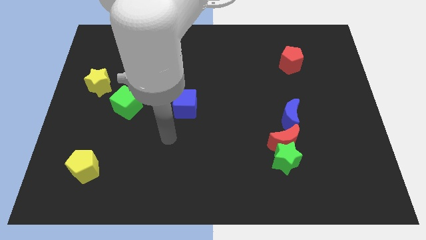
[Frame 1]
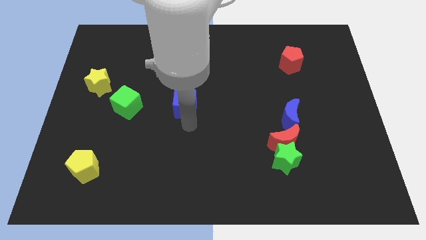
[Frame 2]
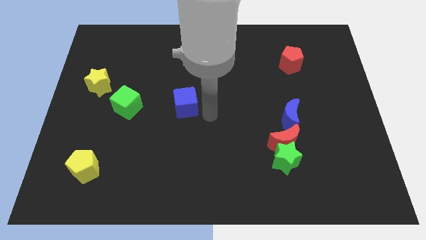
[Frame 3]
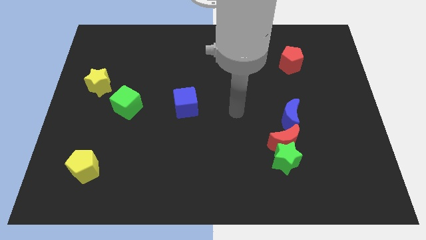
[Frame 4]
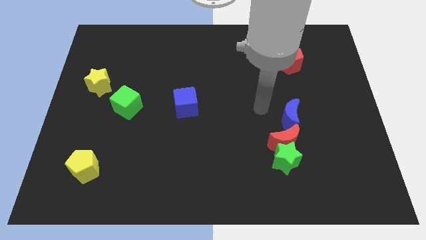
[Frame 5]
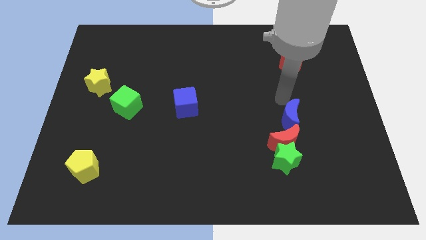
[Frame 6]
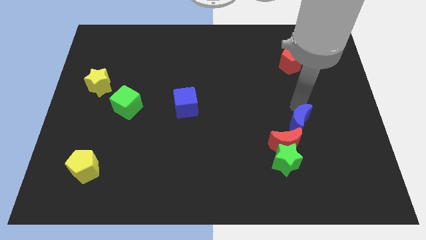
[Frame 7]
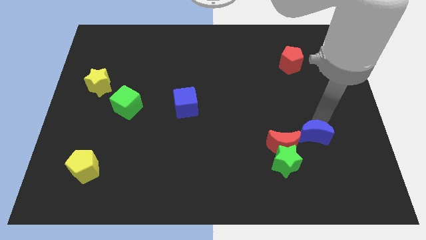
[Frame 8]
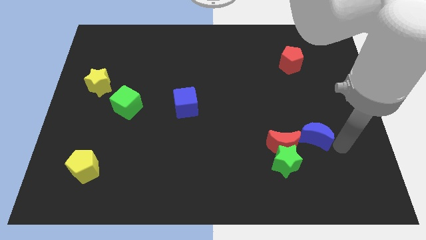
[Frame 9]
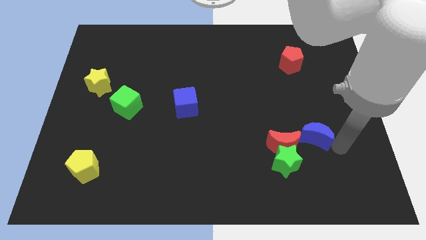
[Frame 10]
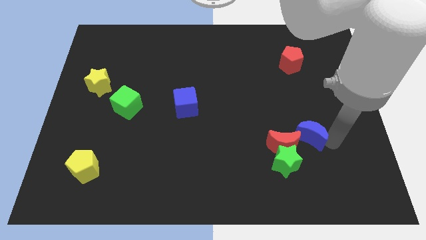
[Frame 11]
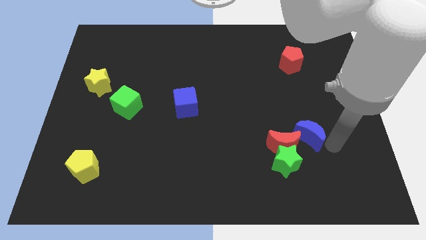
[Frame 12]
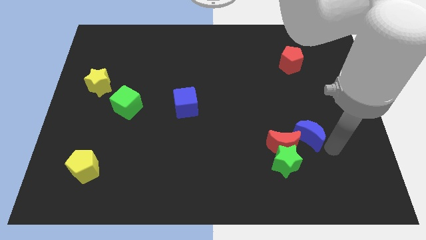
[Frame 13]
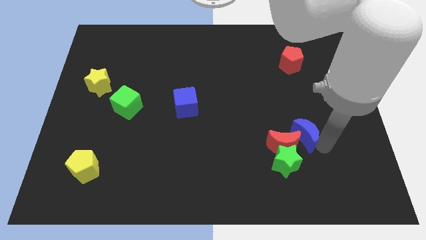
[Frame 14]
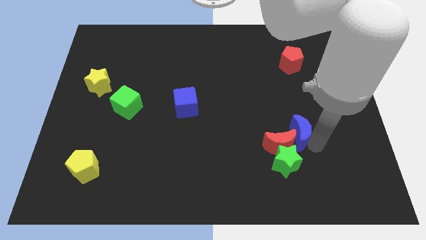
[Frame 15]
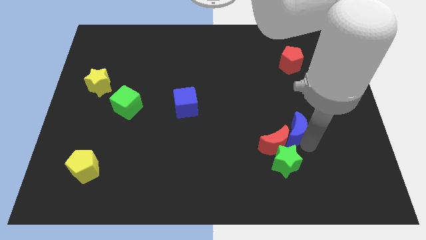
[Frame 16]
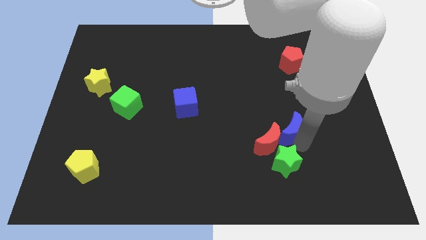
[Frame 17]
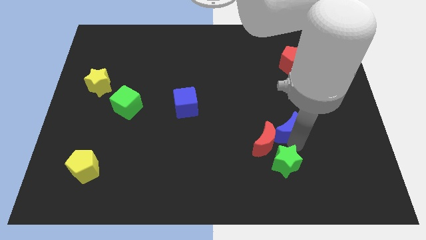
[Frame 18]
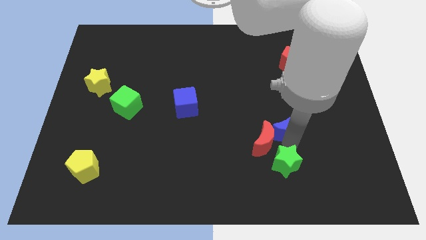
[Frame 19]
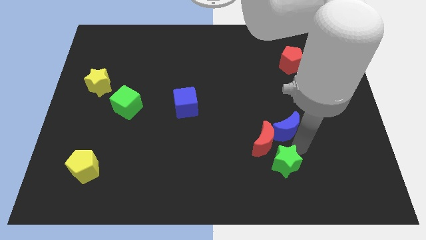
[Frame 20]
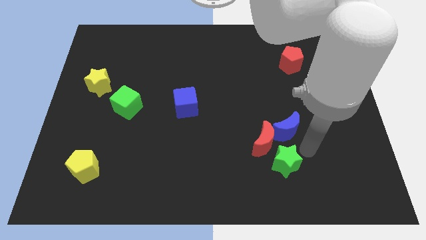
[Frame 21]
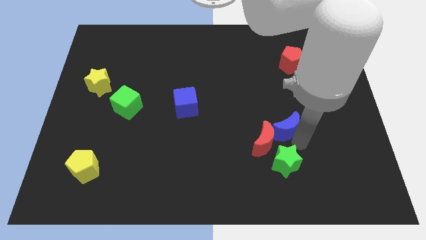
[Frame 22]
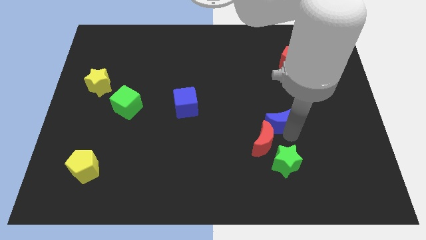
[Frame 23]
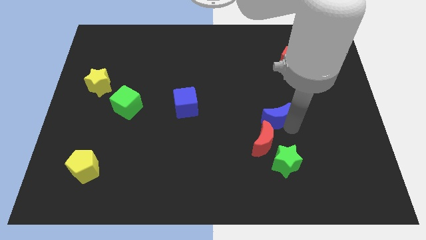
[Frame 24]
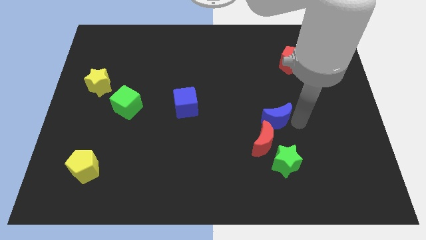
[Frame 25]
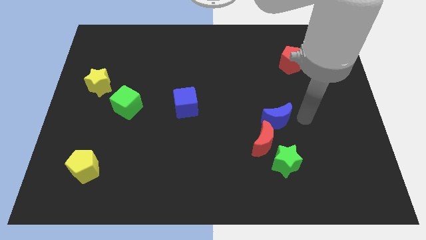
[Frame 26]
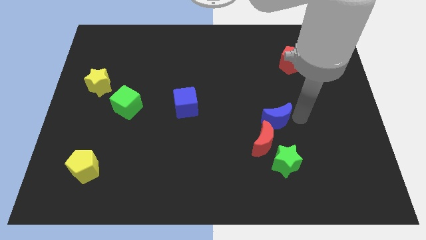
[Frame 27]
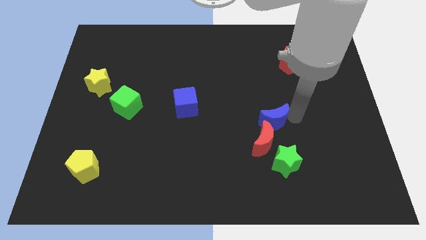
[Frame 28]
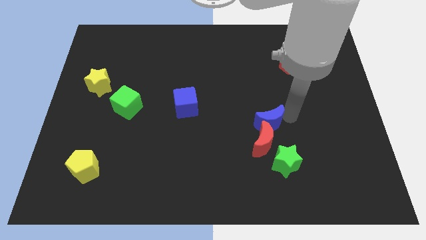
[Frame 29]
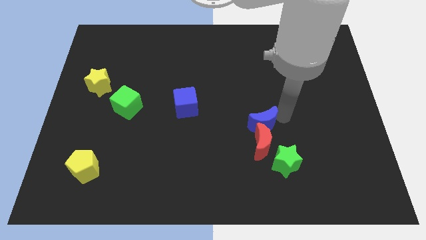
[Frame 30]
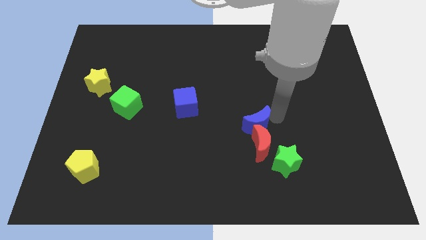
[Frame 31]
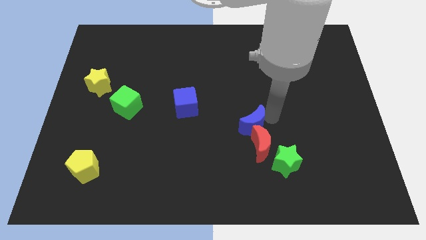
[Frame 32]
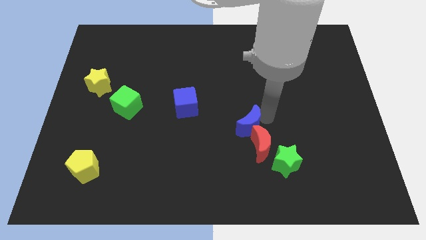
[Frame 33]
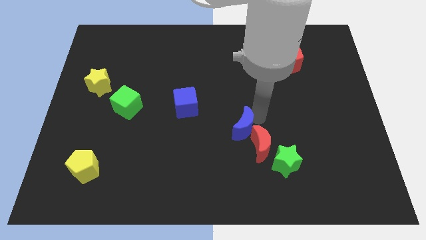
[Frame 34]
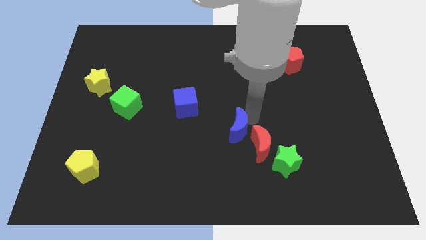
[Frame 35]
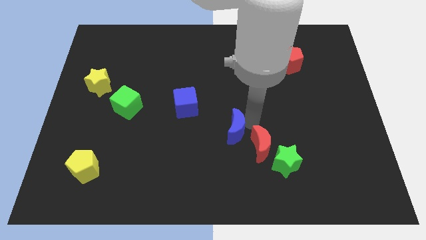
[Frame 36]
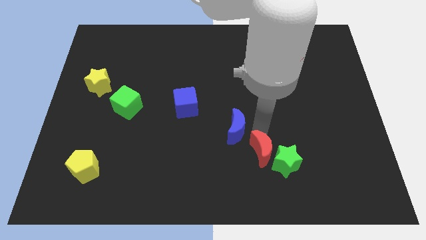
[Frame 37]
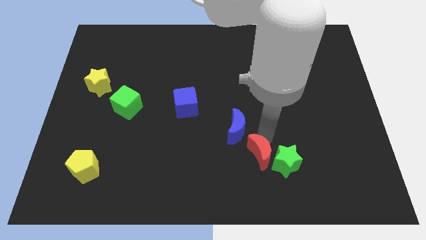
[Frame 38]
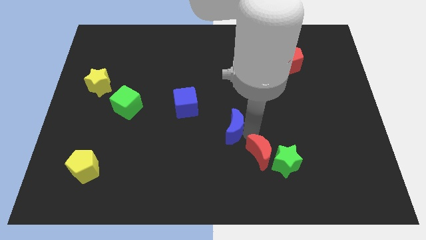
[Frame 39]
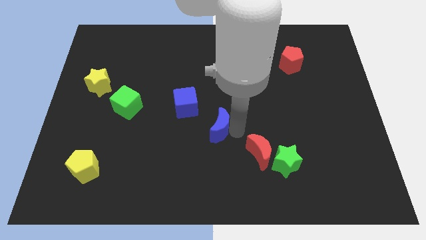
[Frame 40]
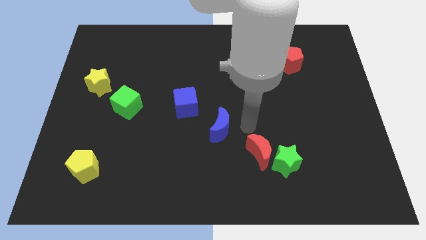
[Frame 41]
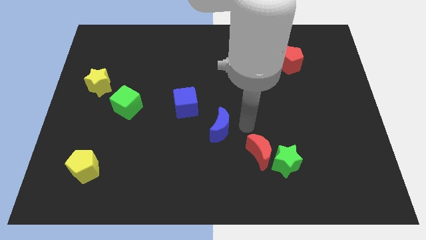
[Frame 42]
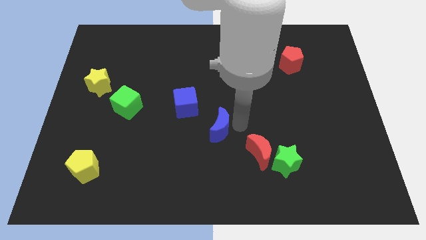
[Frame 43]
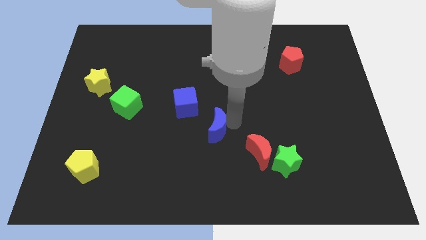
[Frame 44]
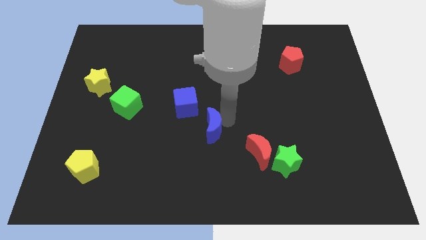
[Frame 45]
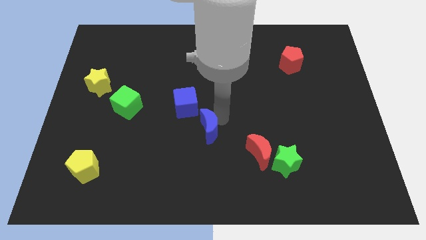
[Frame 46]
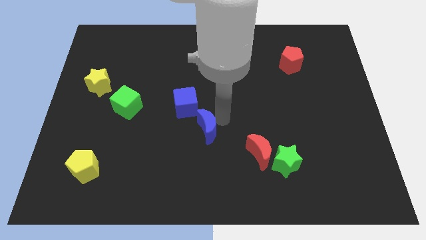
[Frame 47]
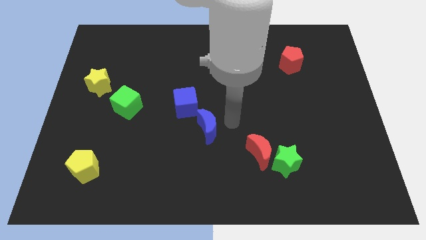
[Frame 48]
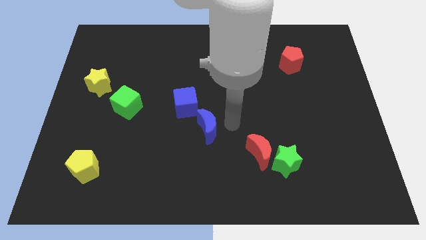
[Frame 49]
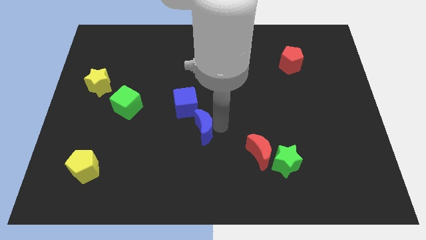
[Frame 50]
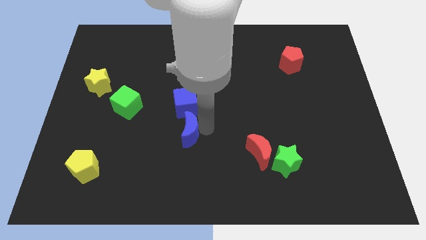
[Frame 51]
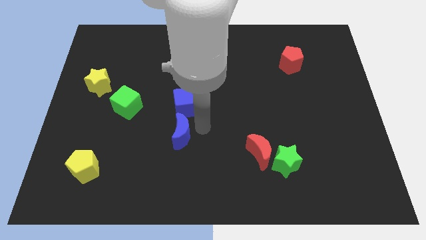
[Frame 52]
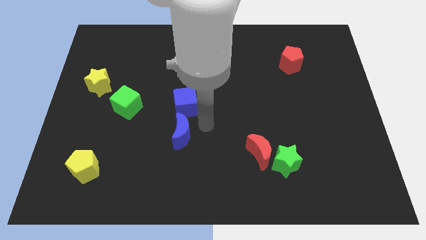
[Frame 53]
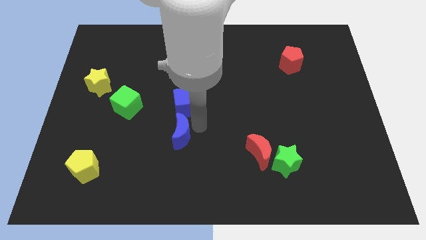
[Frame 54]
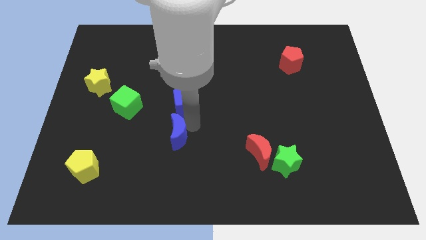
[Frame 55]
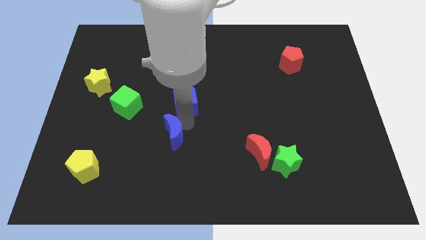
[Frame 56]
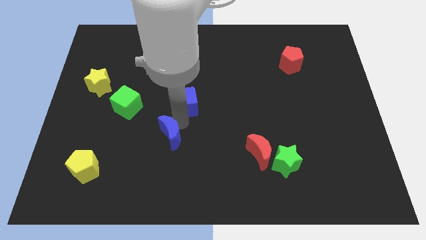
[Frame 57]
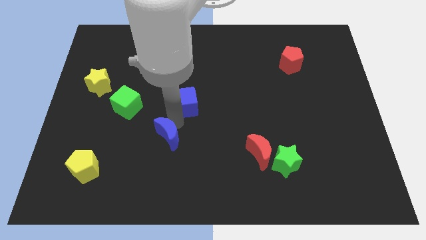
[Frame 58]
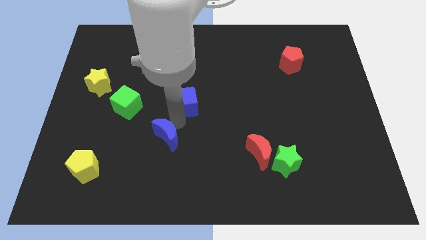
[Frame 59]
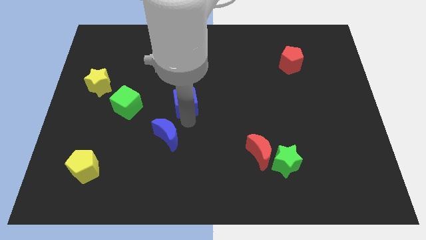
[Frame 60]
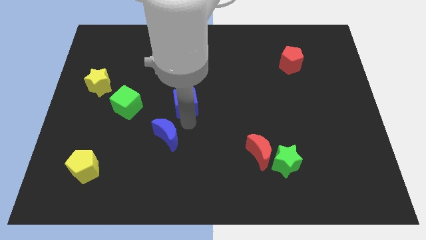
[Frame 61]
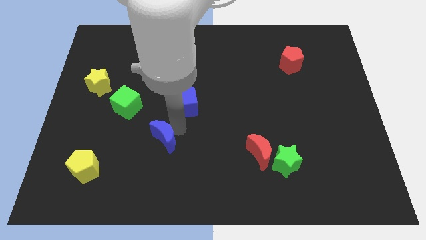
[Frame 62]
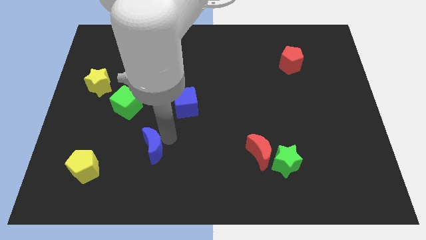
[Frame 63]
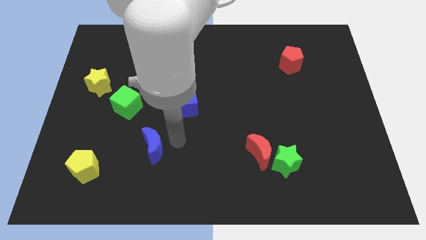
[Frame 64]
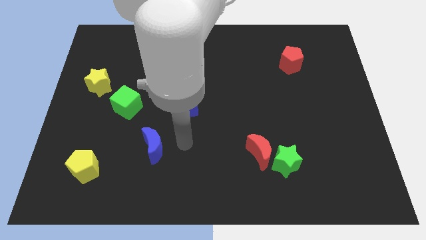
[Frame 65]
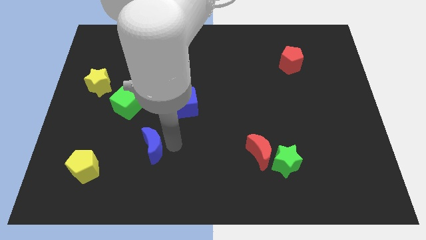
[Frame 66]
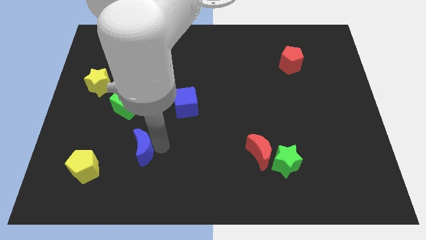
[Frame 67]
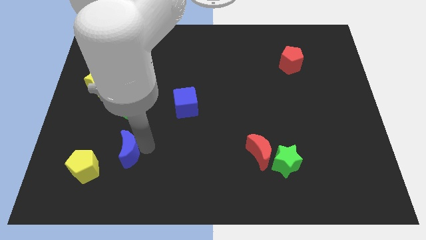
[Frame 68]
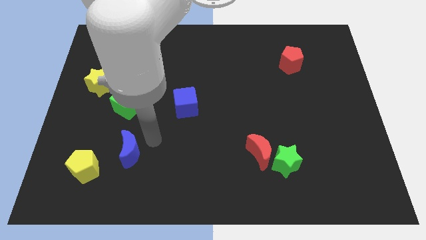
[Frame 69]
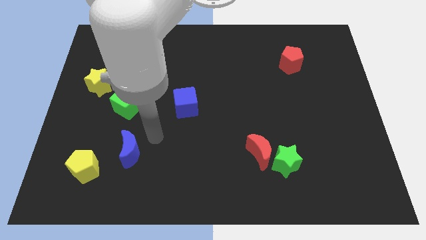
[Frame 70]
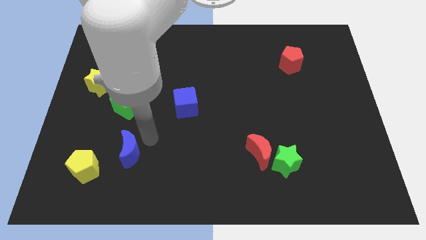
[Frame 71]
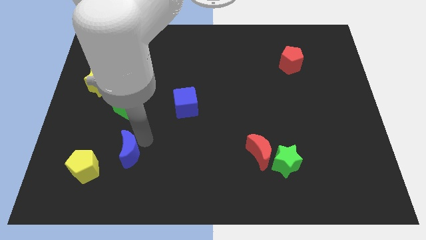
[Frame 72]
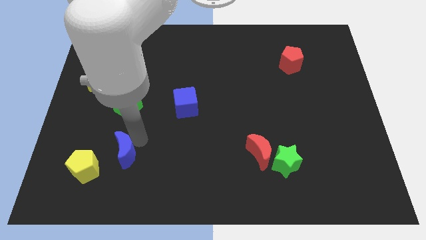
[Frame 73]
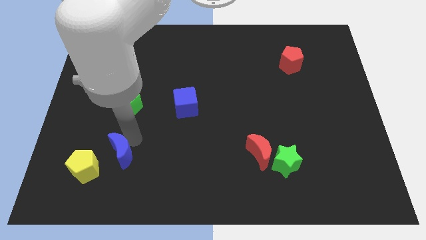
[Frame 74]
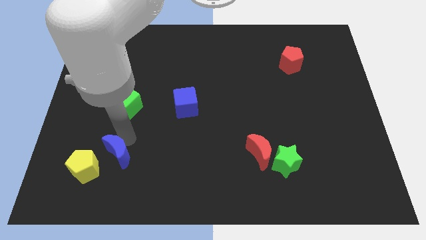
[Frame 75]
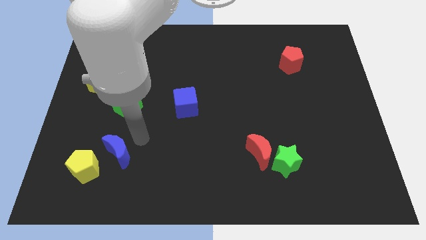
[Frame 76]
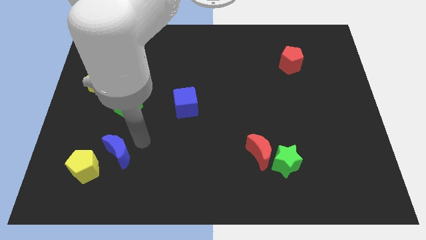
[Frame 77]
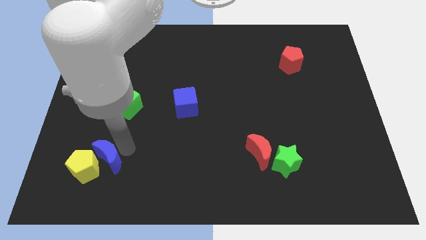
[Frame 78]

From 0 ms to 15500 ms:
push the blue moon towards the yellow pentagon

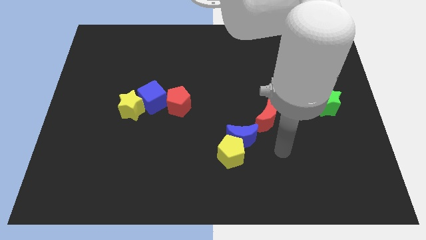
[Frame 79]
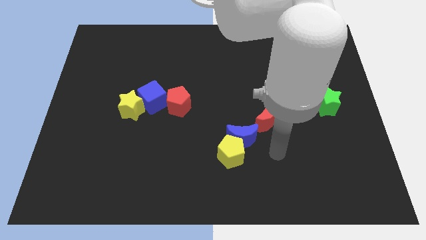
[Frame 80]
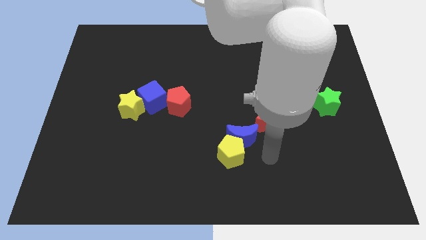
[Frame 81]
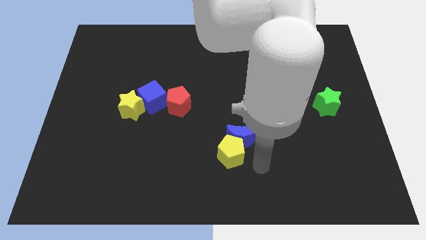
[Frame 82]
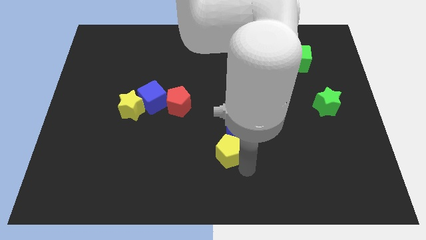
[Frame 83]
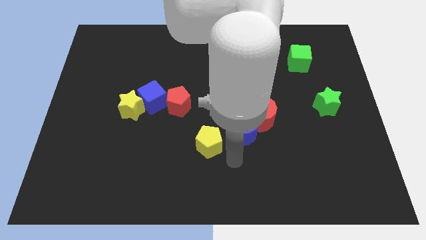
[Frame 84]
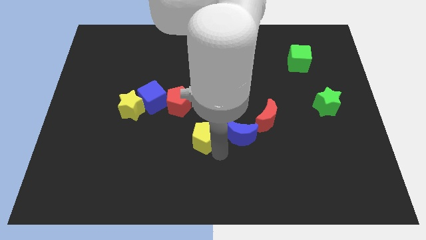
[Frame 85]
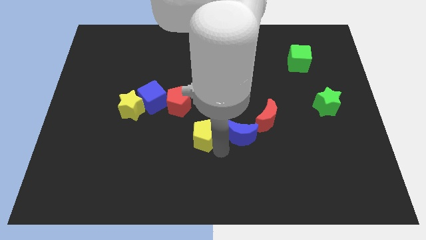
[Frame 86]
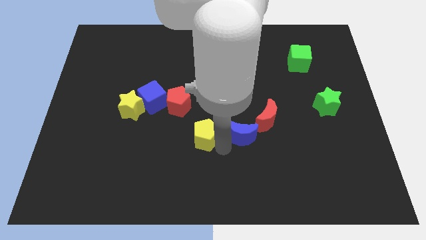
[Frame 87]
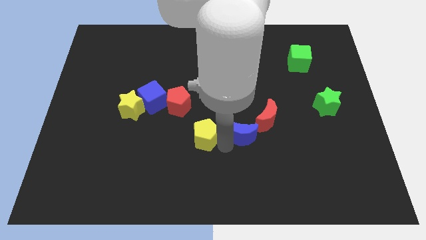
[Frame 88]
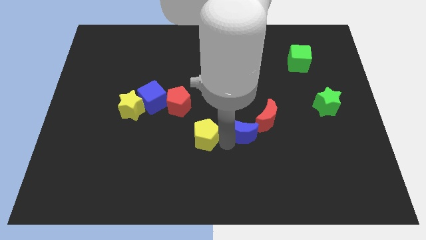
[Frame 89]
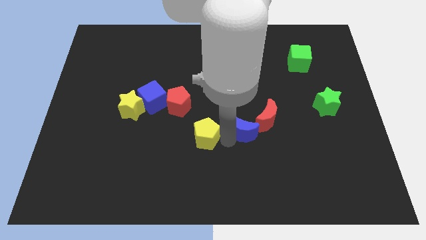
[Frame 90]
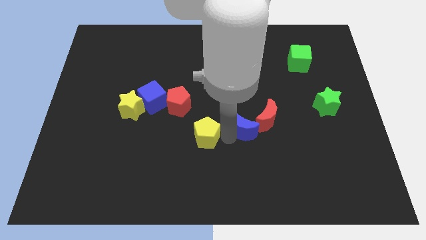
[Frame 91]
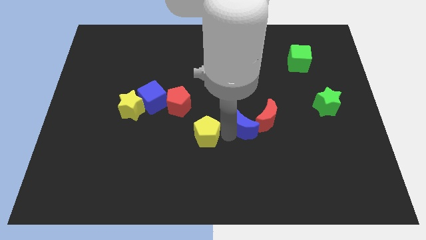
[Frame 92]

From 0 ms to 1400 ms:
push the blue moon to the red moon
